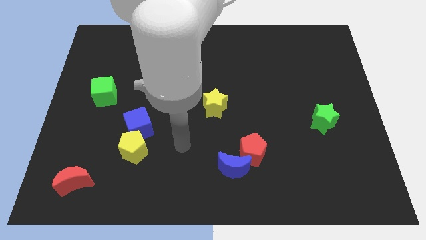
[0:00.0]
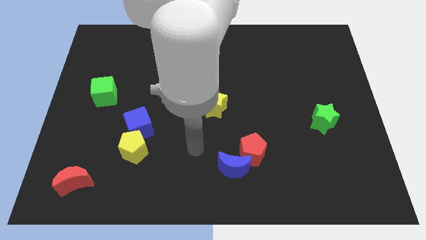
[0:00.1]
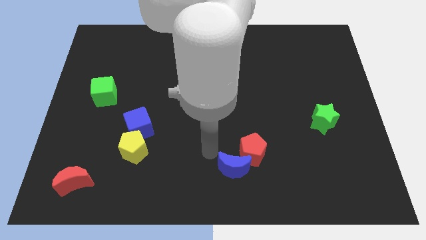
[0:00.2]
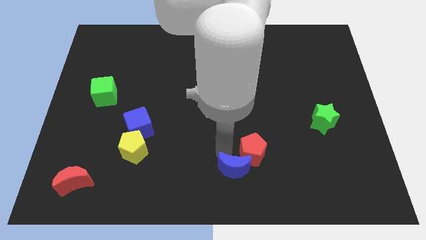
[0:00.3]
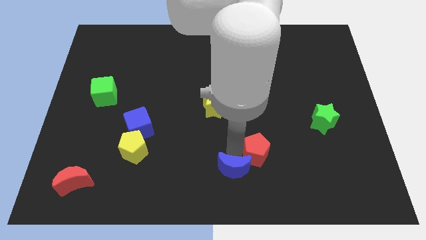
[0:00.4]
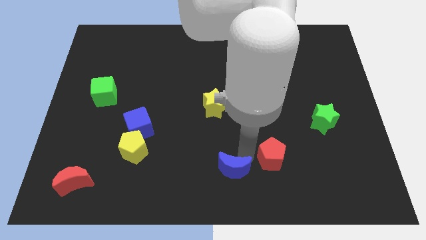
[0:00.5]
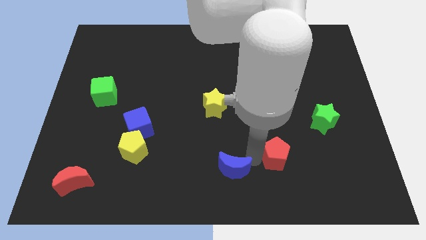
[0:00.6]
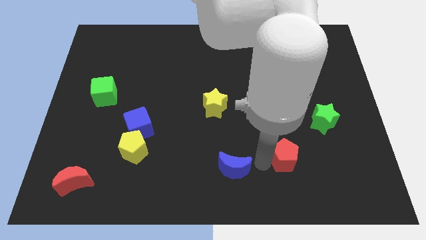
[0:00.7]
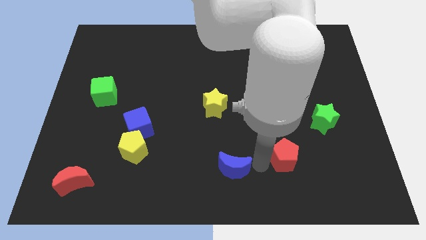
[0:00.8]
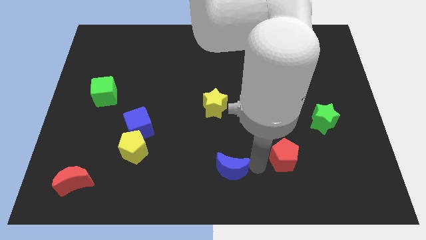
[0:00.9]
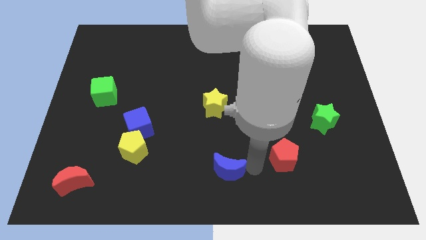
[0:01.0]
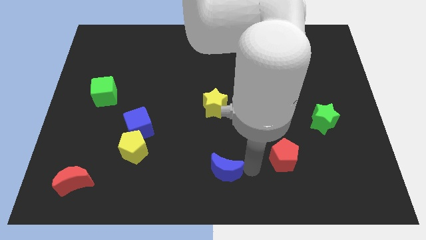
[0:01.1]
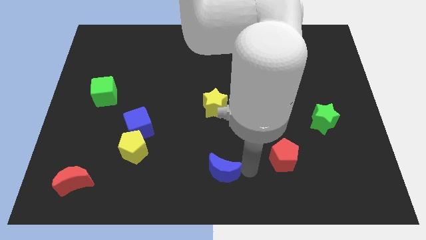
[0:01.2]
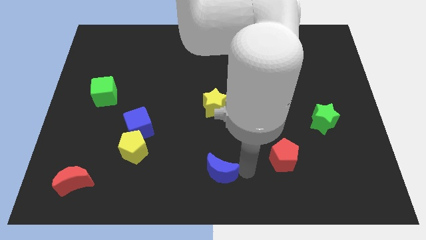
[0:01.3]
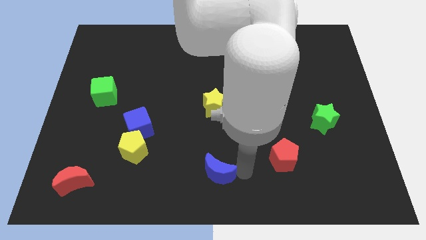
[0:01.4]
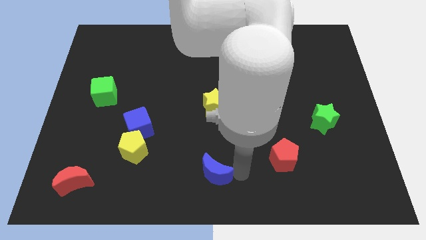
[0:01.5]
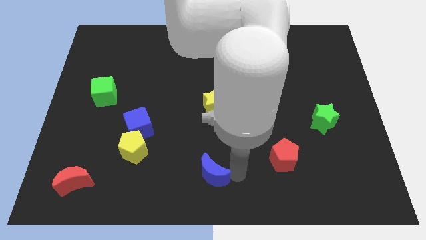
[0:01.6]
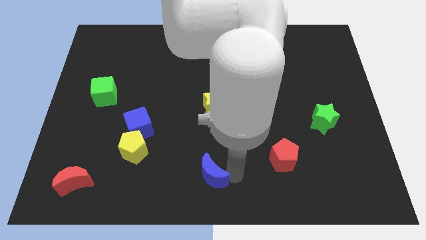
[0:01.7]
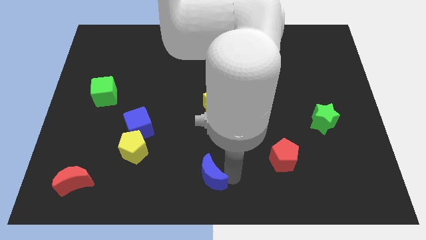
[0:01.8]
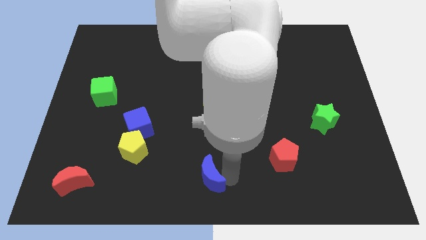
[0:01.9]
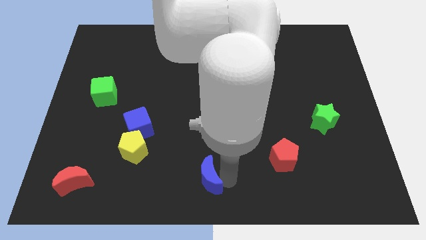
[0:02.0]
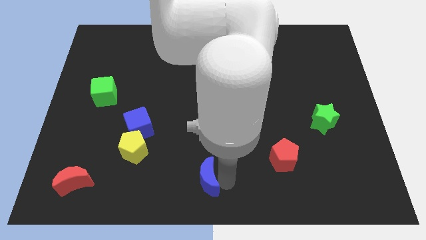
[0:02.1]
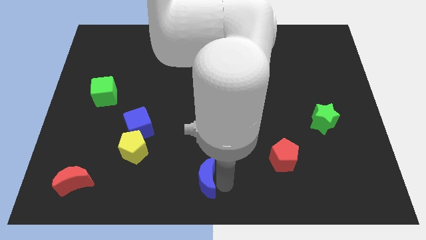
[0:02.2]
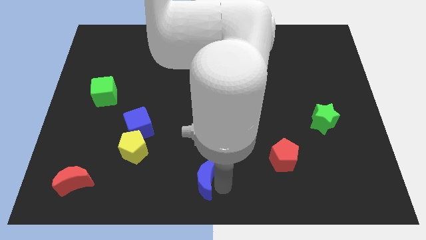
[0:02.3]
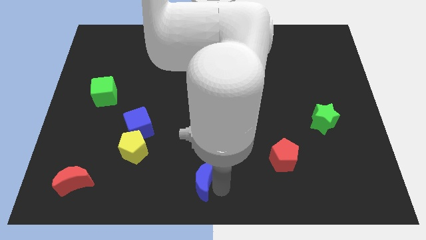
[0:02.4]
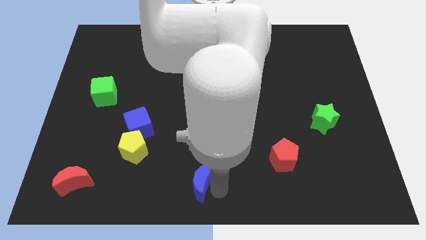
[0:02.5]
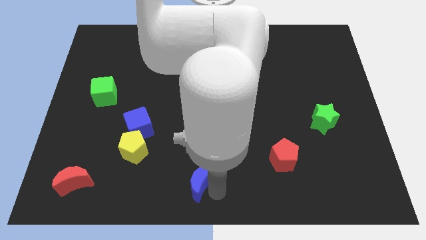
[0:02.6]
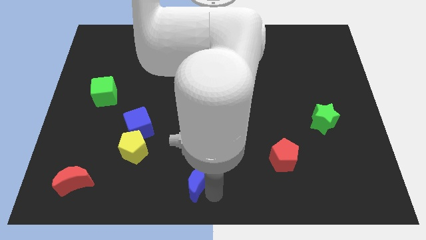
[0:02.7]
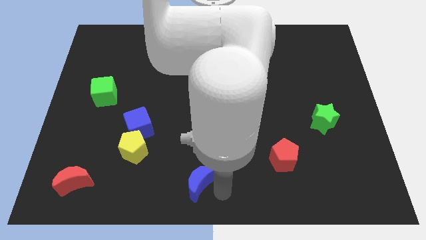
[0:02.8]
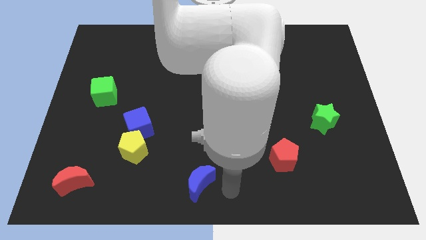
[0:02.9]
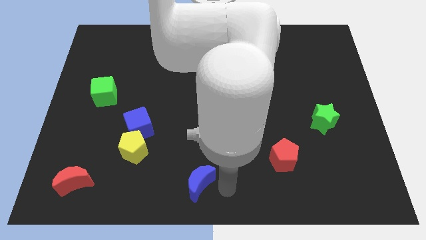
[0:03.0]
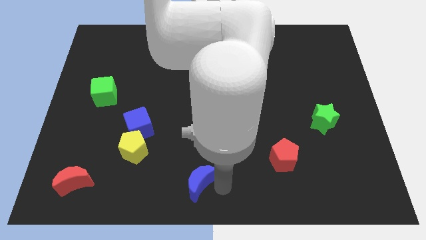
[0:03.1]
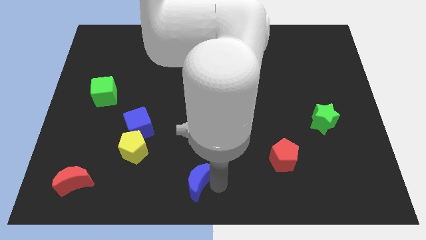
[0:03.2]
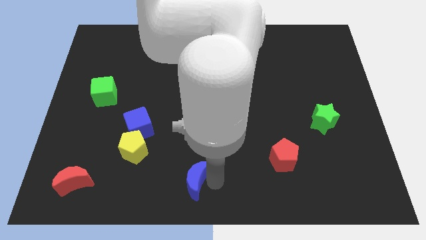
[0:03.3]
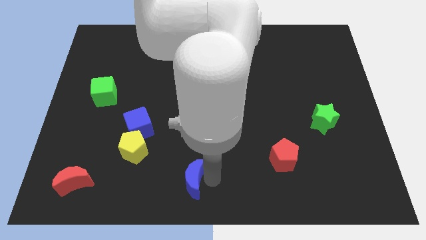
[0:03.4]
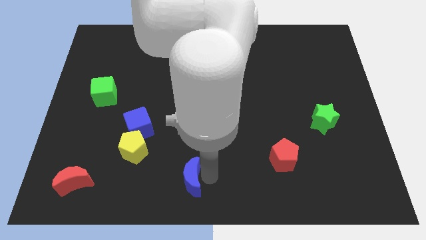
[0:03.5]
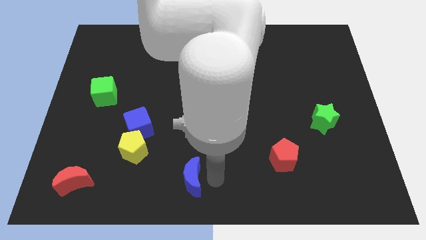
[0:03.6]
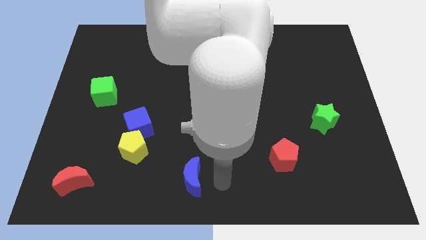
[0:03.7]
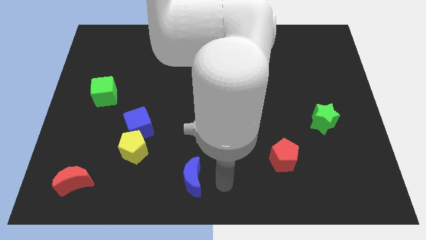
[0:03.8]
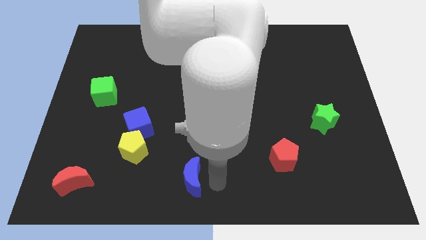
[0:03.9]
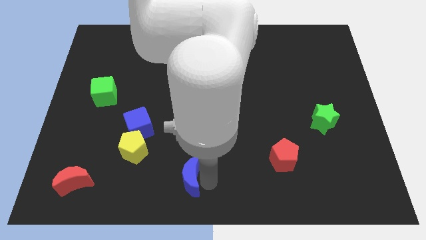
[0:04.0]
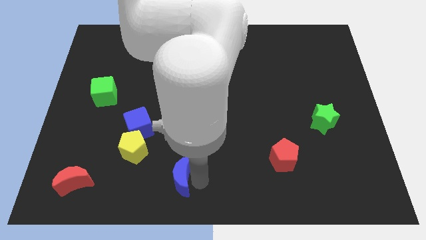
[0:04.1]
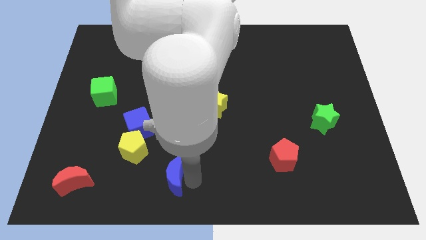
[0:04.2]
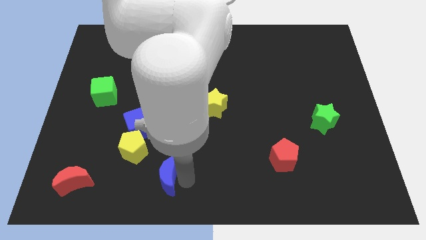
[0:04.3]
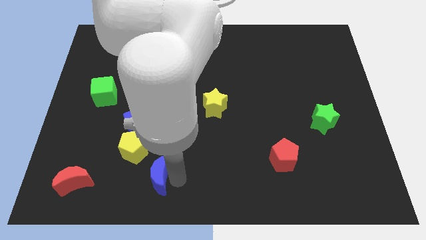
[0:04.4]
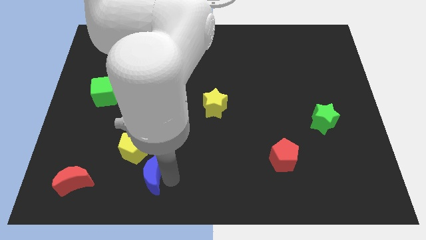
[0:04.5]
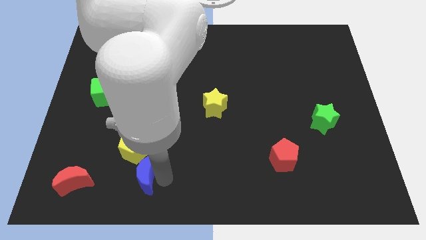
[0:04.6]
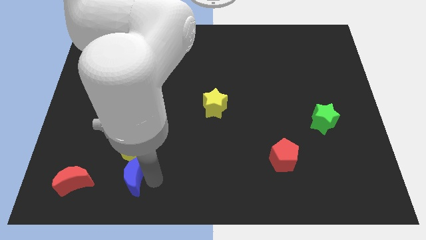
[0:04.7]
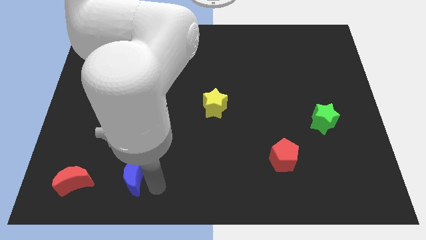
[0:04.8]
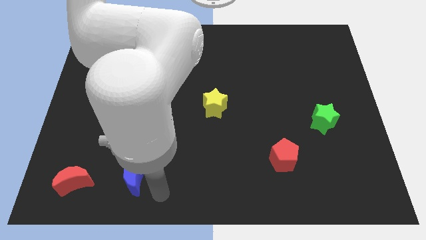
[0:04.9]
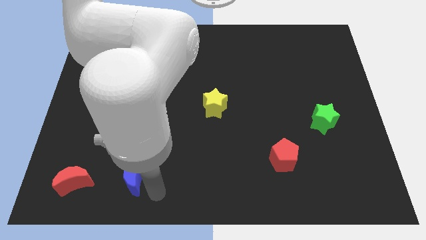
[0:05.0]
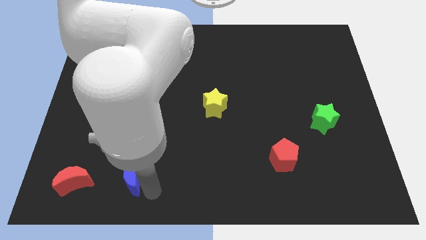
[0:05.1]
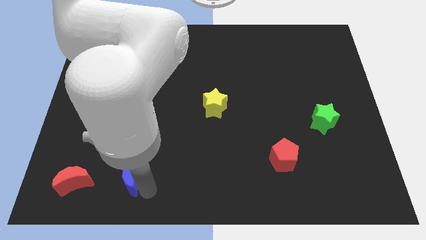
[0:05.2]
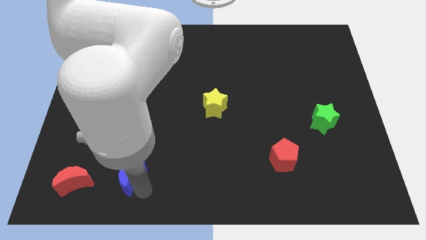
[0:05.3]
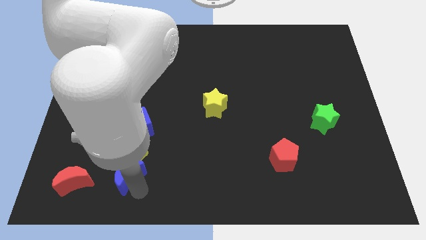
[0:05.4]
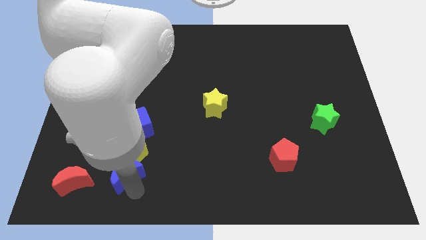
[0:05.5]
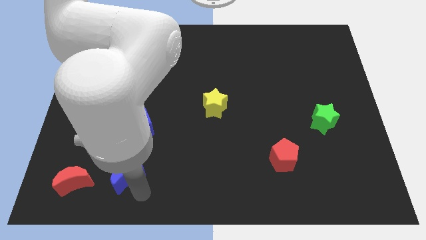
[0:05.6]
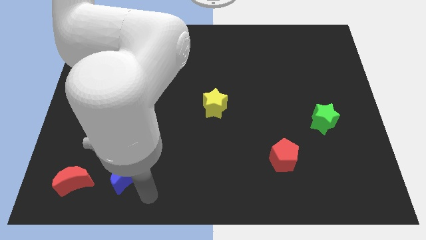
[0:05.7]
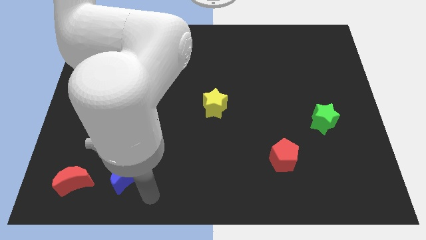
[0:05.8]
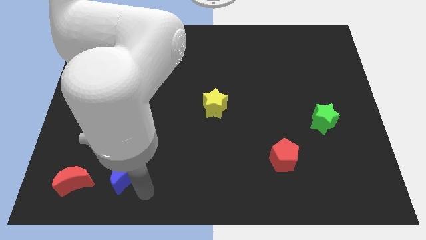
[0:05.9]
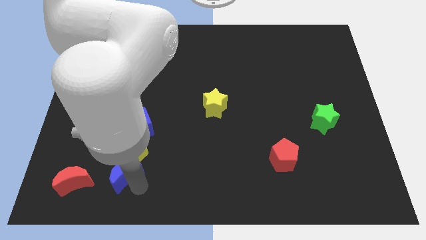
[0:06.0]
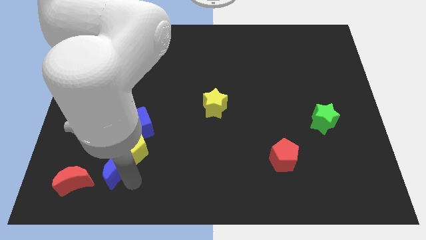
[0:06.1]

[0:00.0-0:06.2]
push the blue moon to the top right side of the red moon
